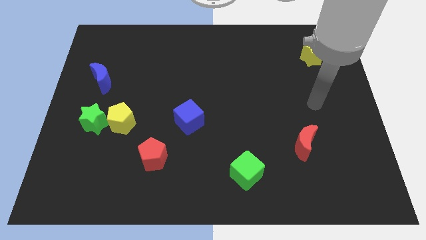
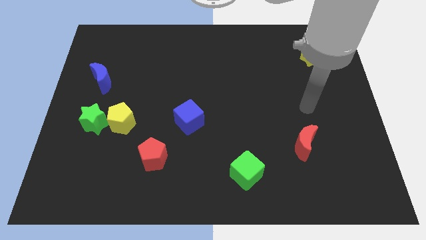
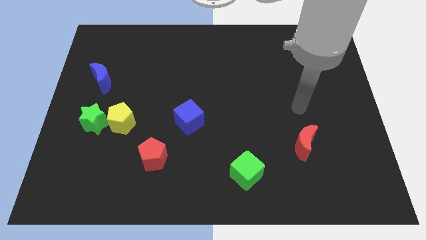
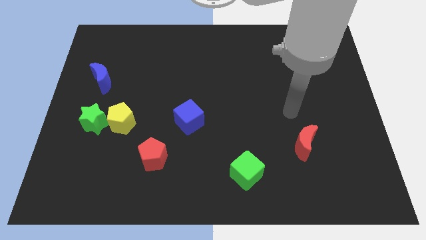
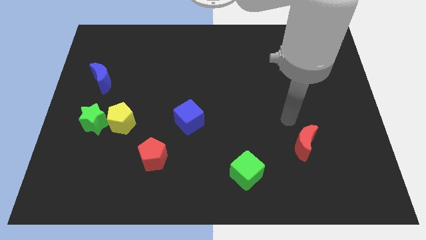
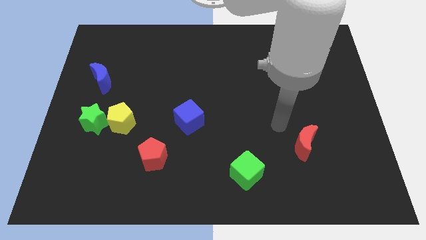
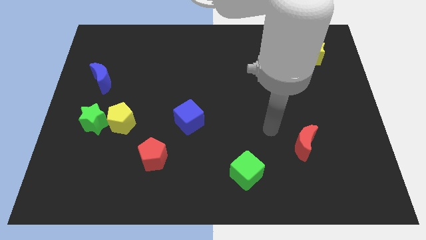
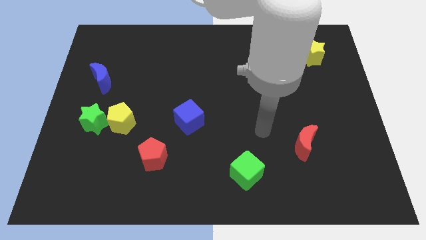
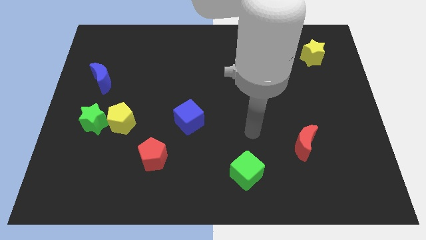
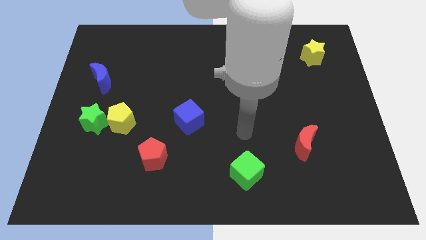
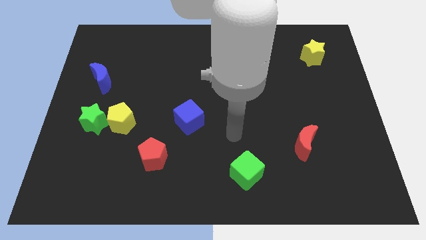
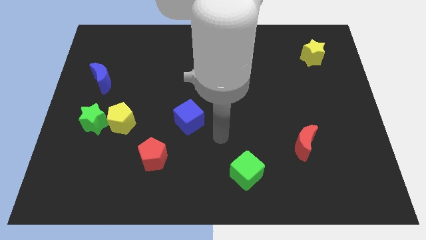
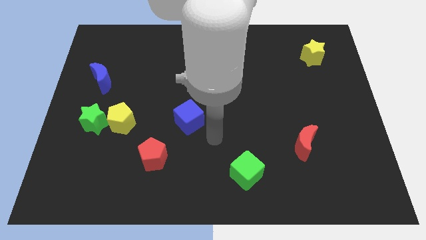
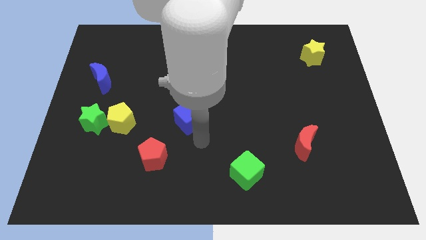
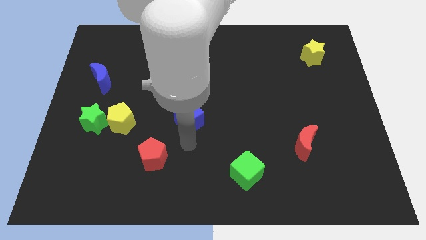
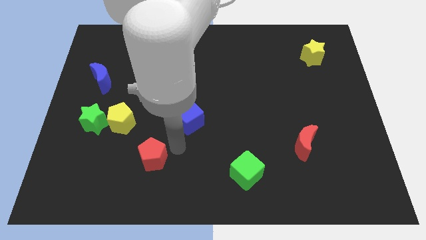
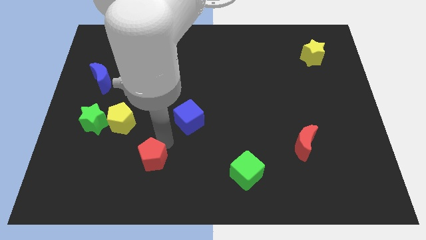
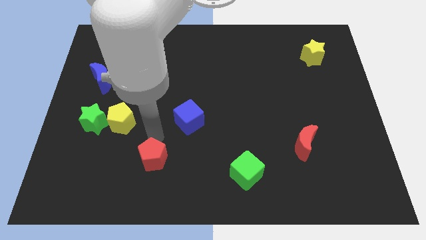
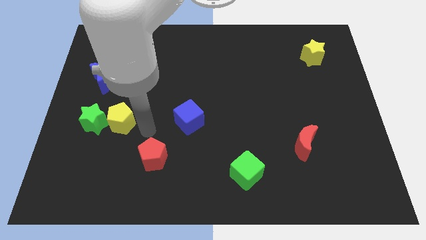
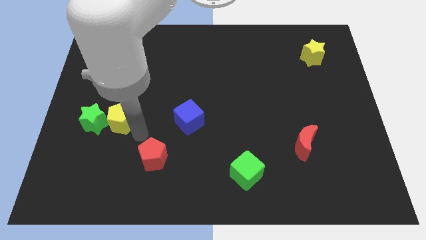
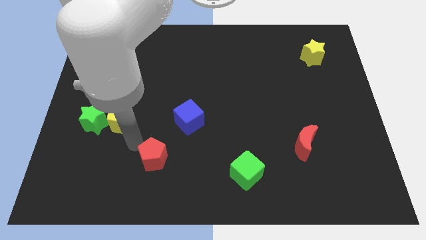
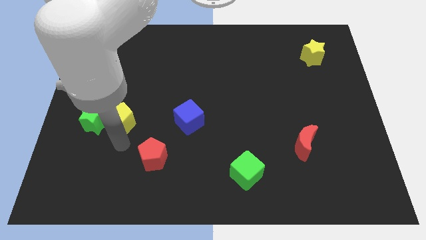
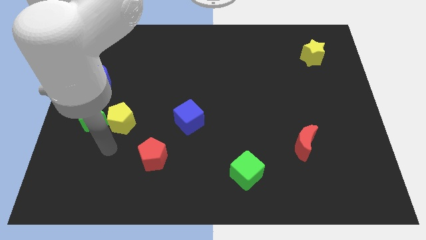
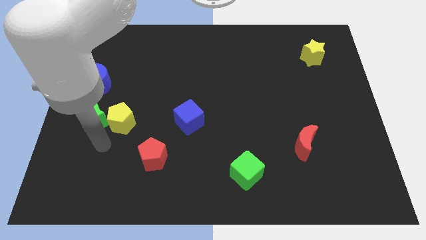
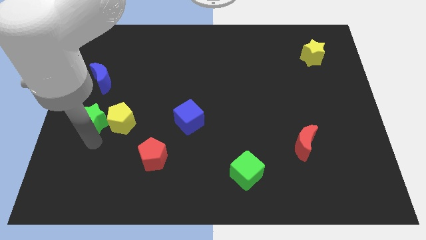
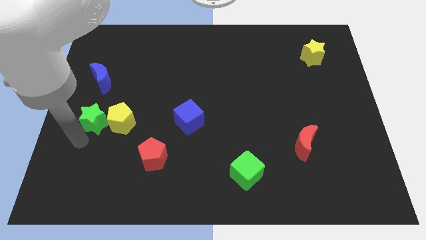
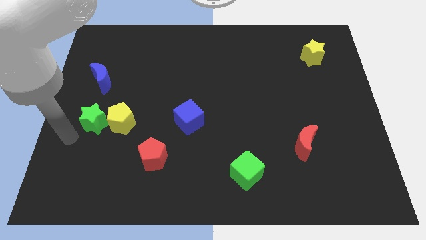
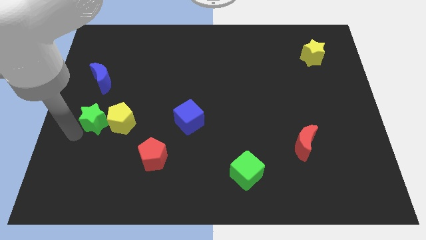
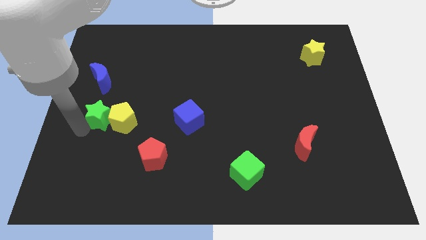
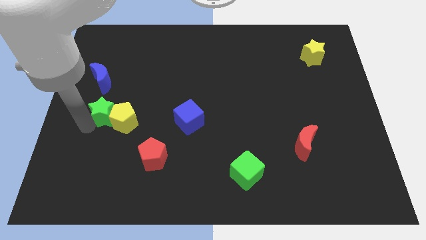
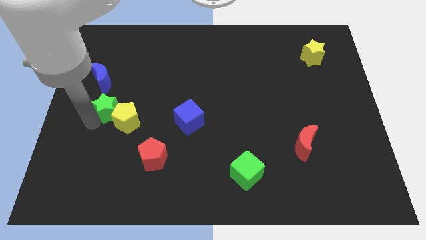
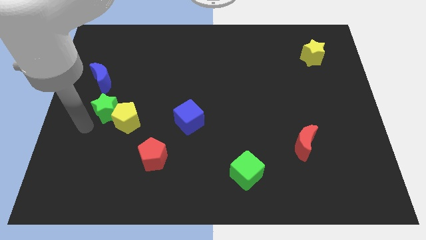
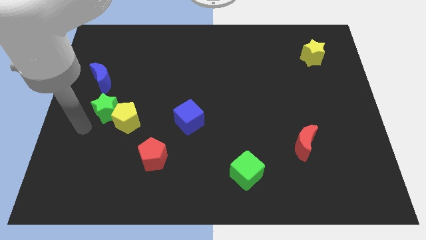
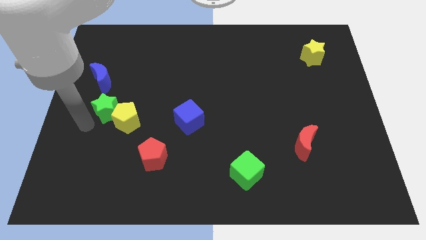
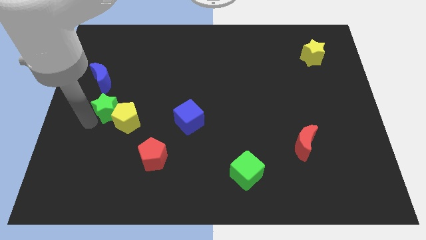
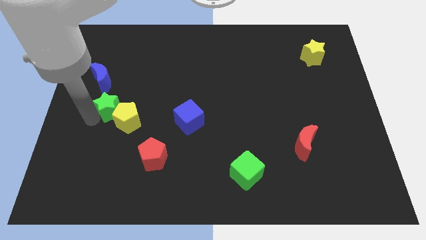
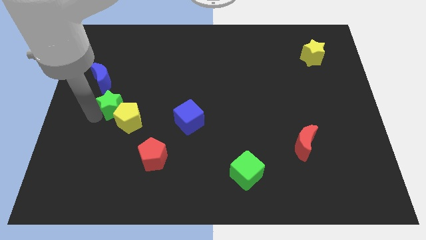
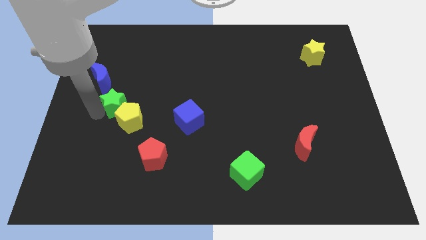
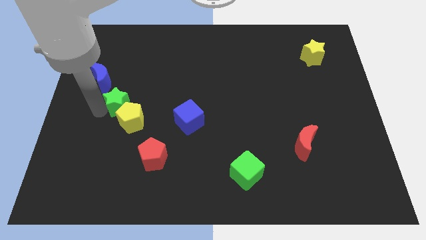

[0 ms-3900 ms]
slide the green star a bit up and then to the right

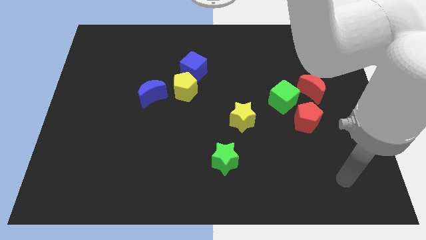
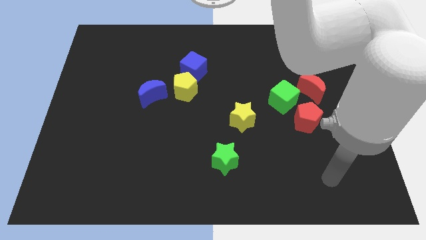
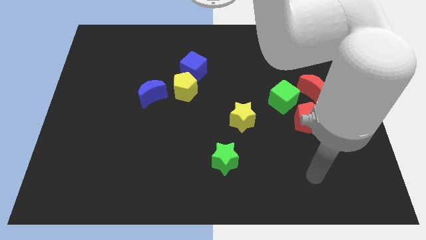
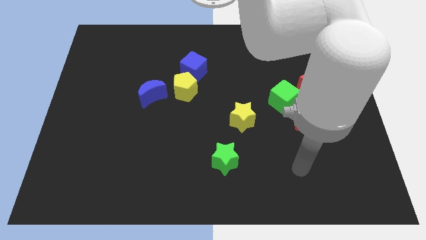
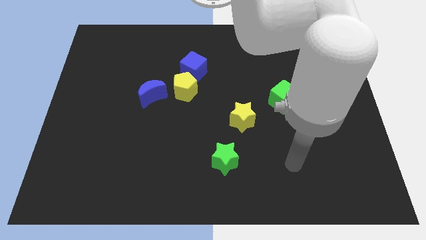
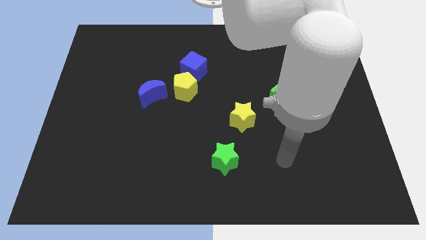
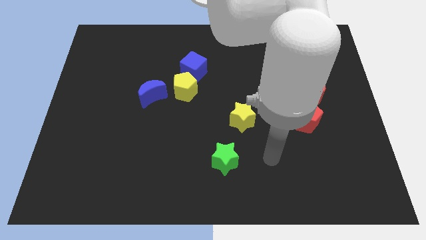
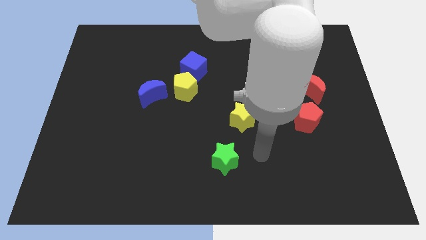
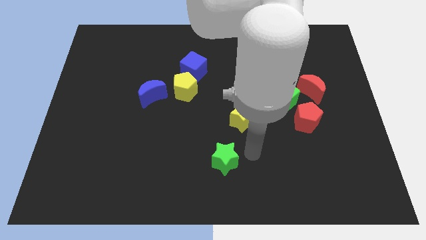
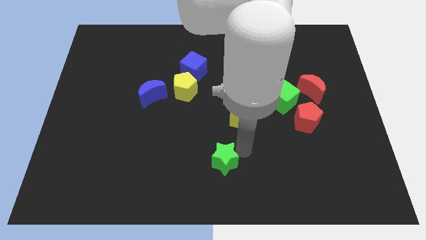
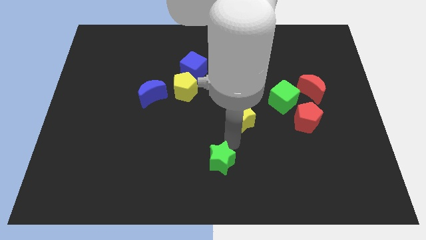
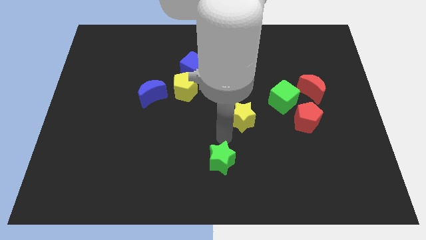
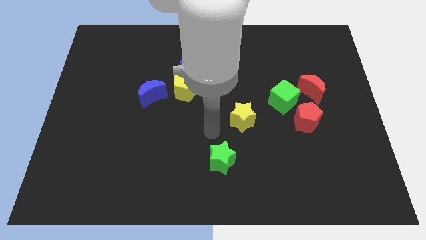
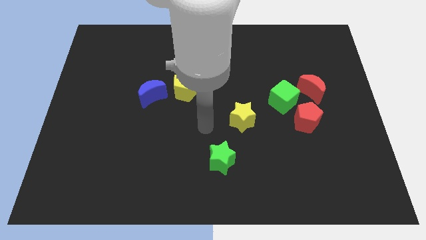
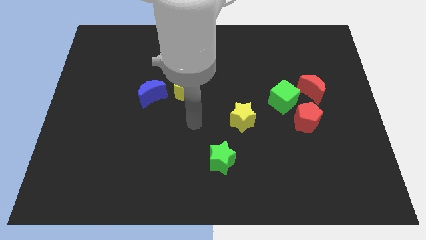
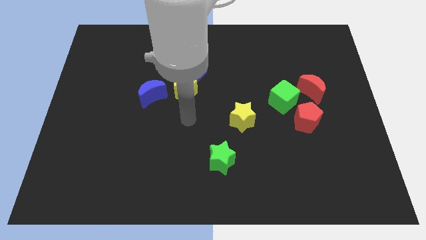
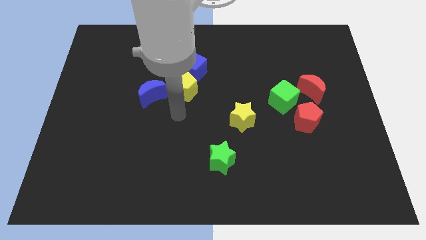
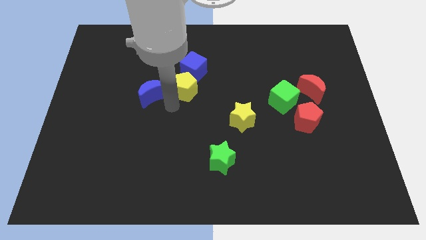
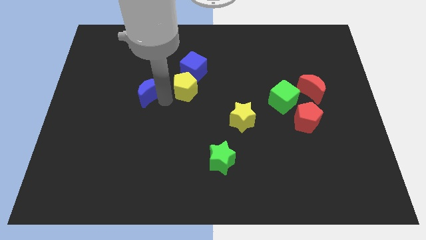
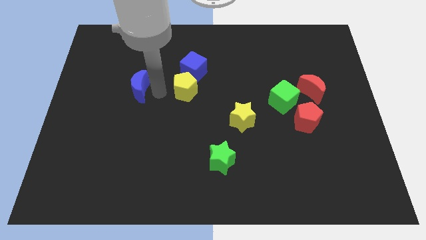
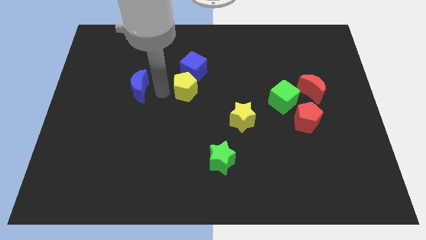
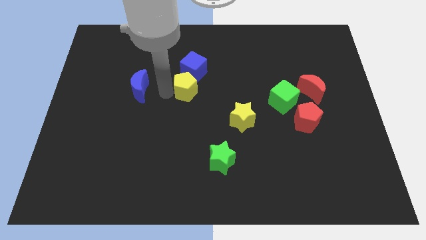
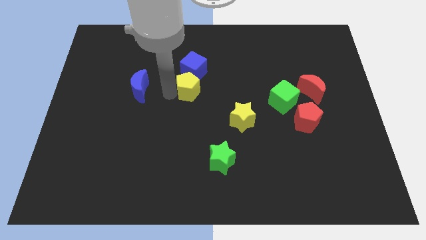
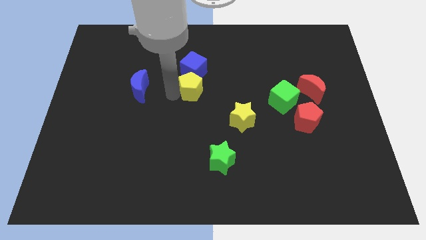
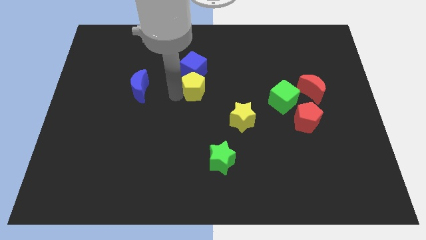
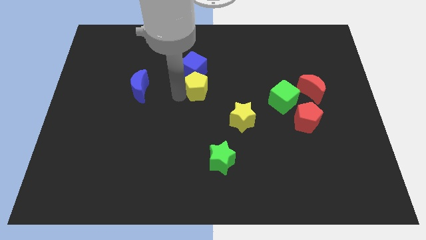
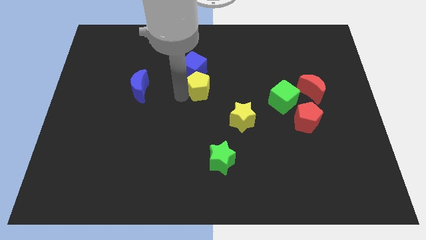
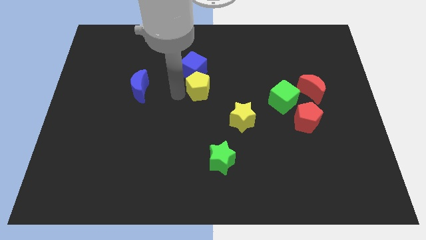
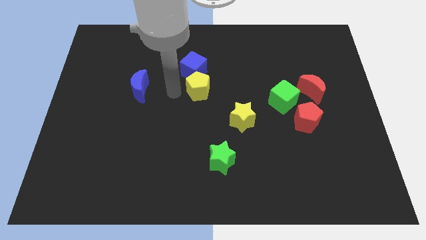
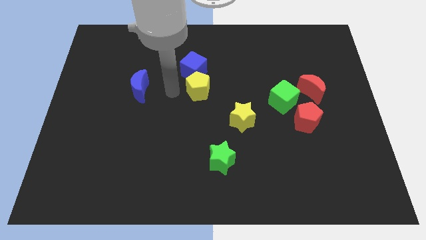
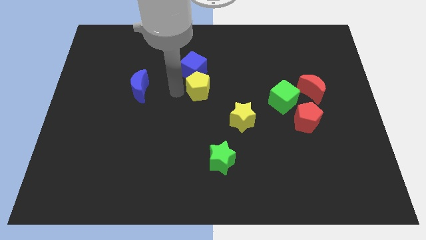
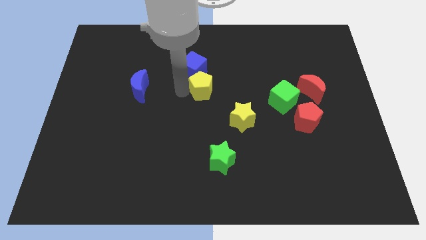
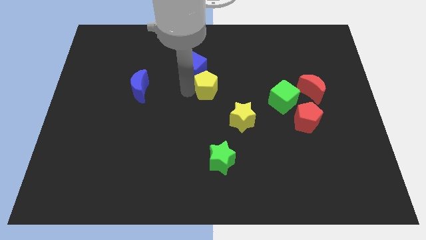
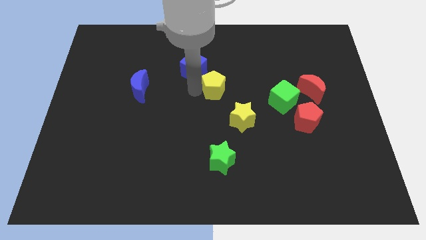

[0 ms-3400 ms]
move the yellow pentagon right somewhat

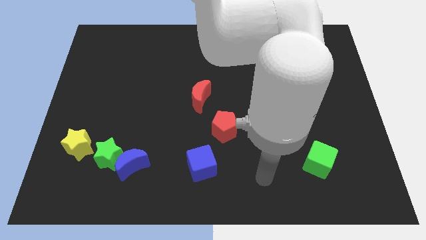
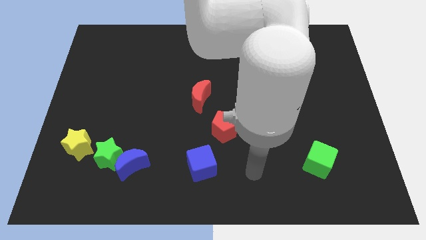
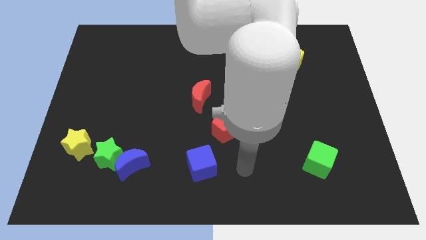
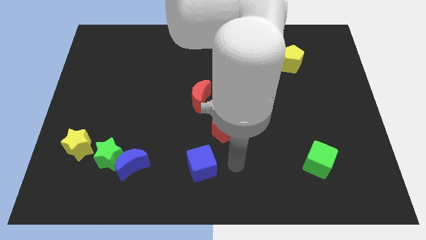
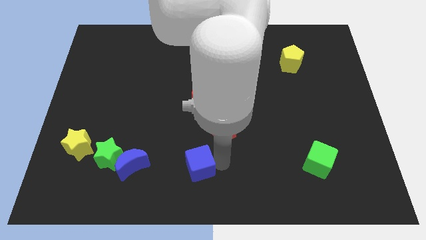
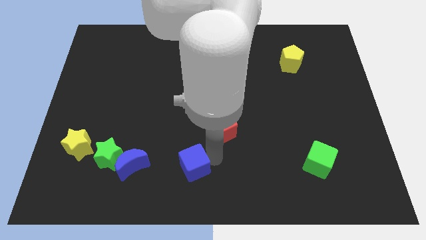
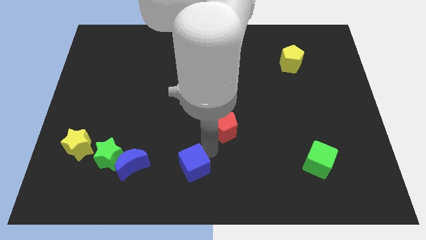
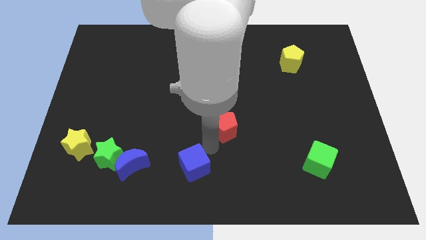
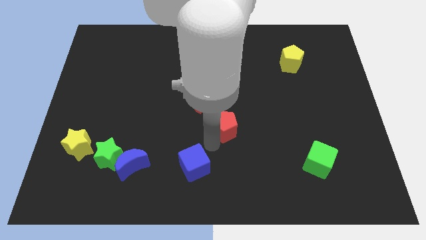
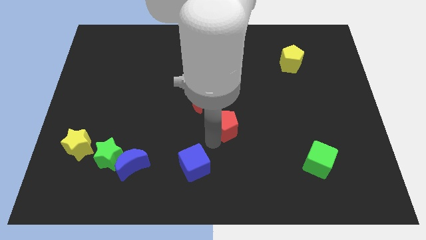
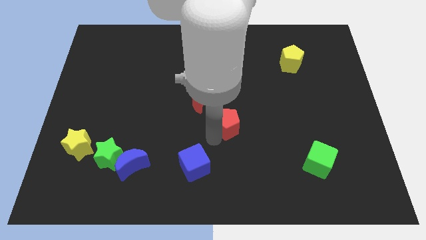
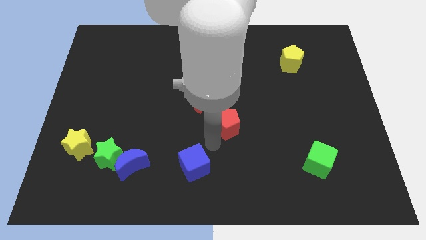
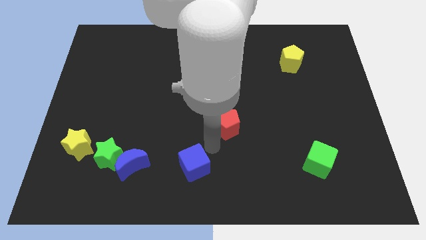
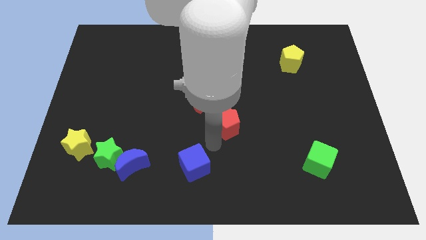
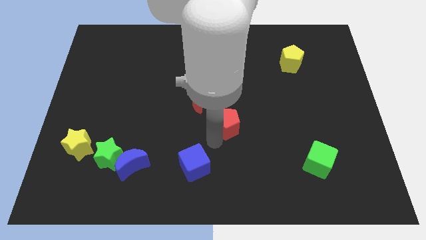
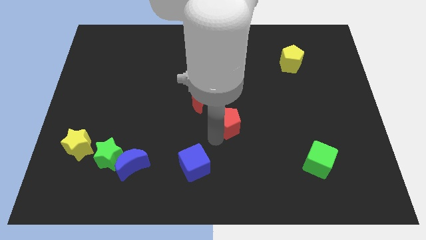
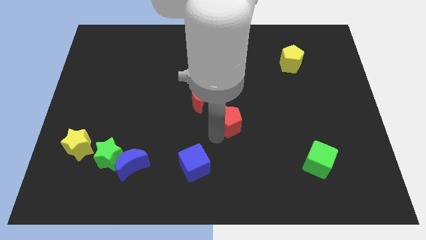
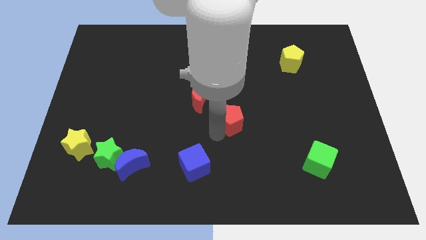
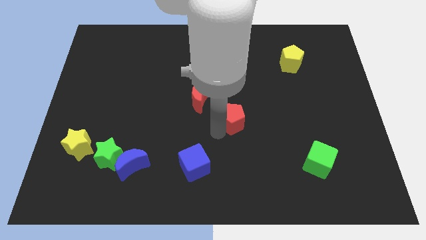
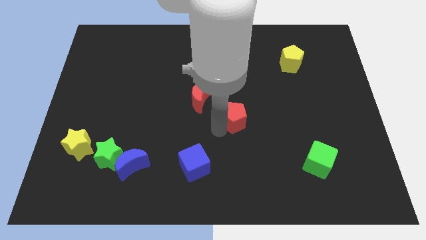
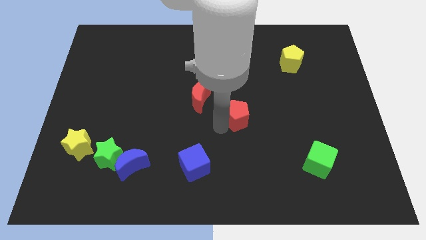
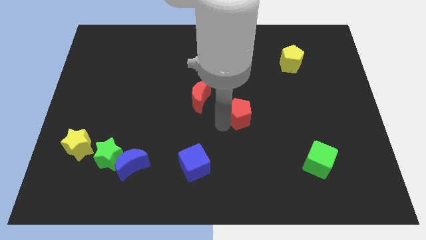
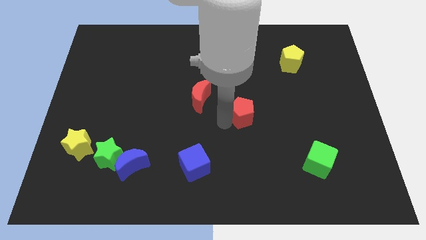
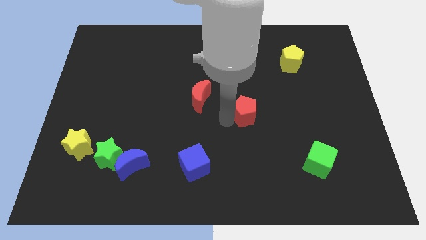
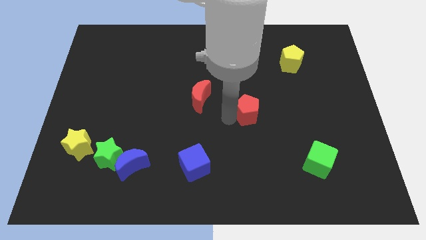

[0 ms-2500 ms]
slightly push the red pentagon up and then to the right
